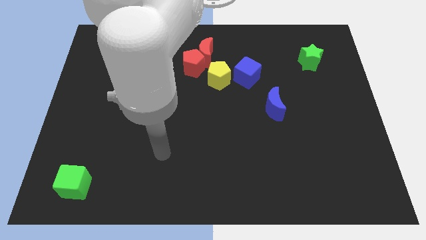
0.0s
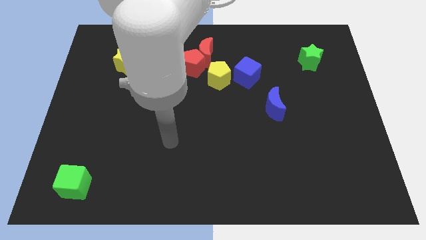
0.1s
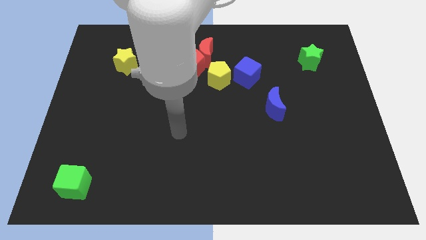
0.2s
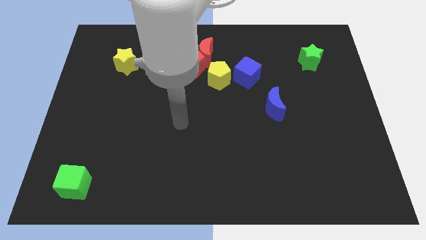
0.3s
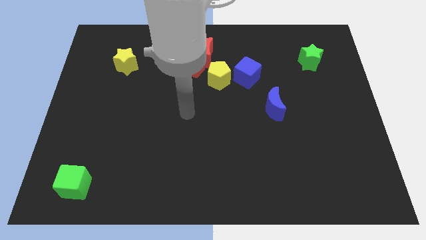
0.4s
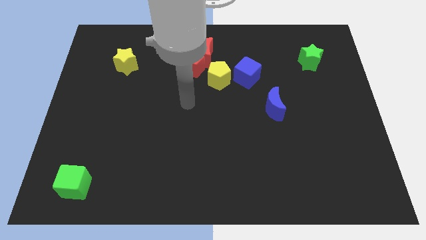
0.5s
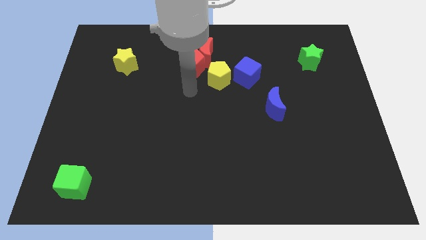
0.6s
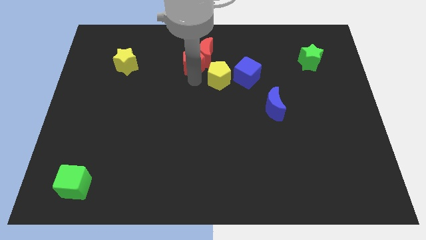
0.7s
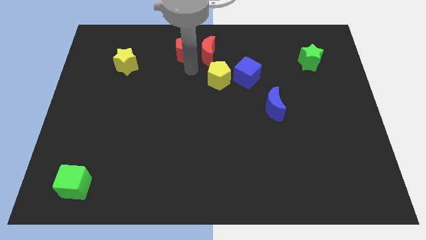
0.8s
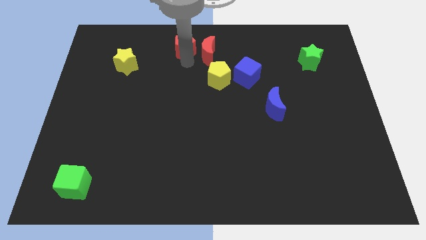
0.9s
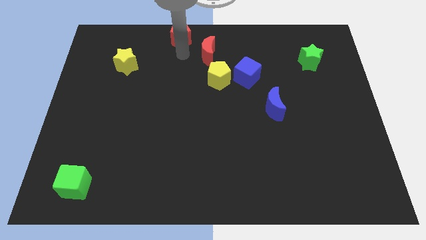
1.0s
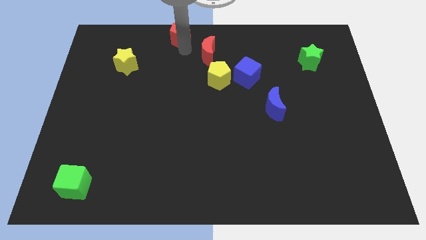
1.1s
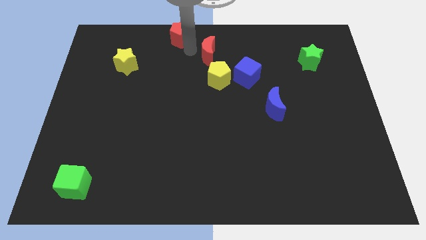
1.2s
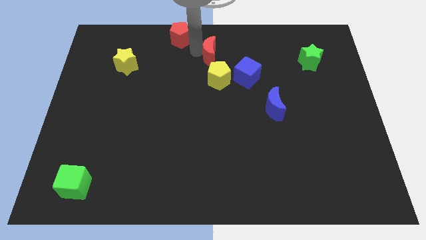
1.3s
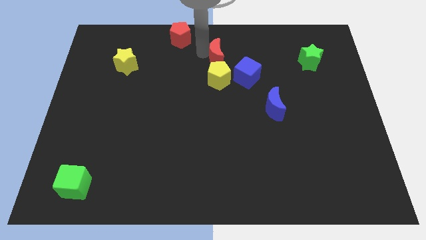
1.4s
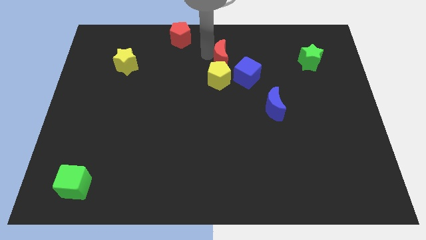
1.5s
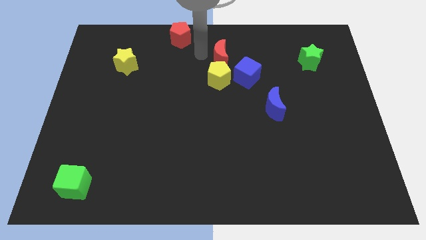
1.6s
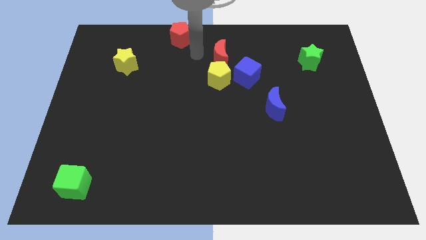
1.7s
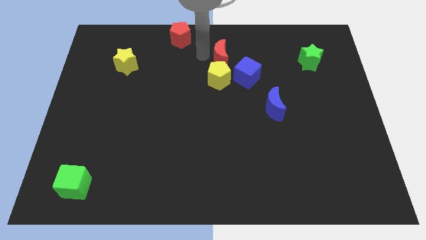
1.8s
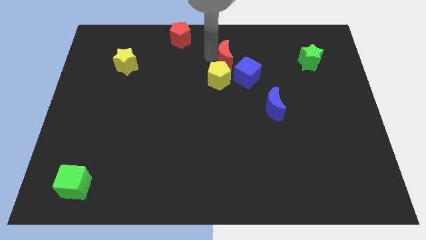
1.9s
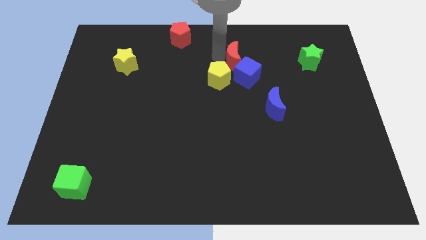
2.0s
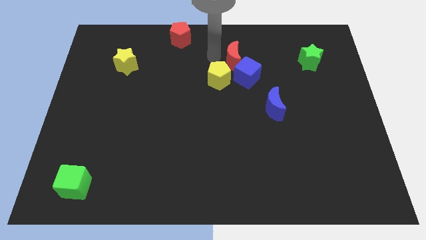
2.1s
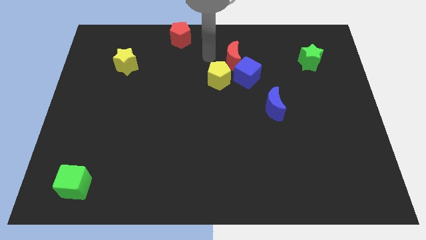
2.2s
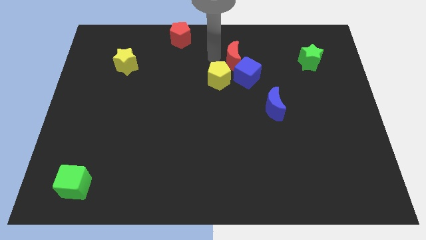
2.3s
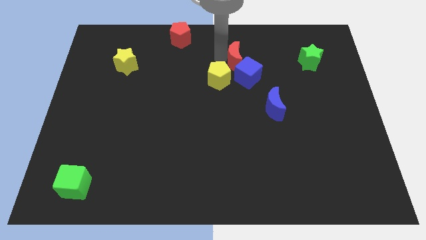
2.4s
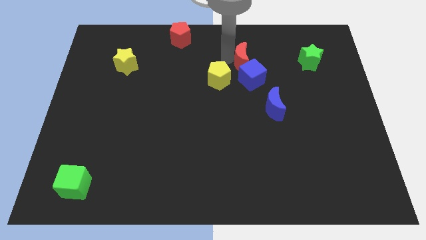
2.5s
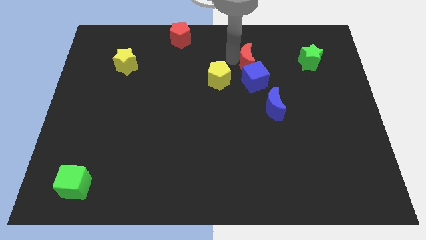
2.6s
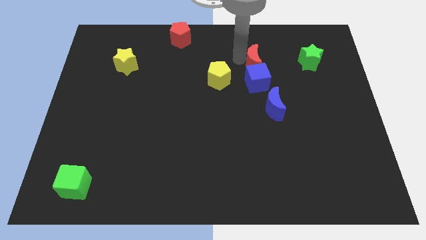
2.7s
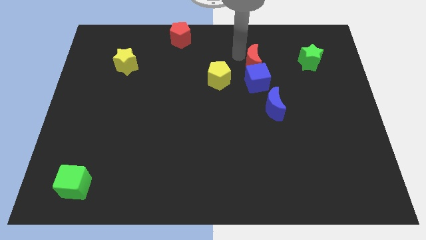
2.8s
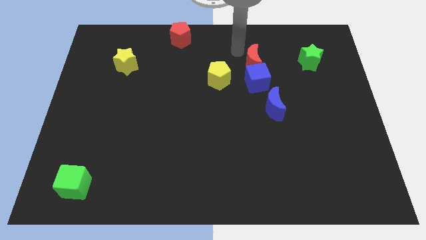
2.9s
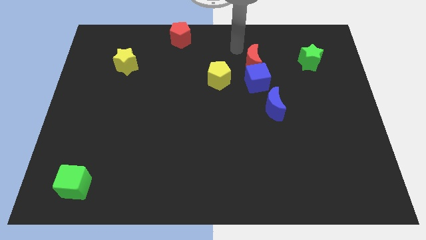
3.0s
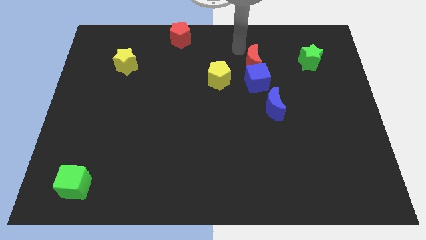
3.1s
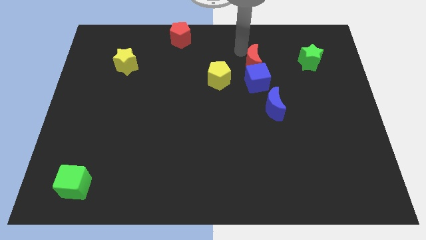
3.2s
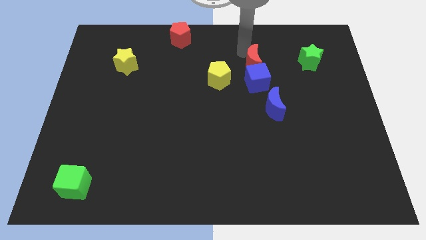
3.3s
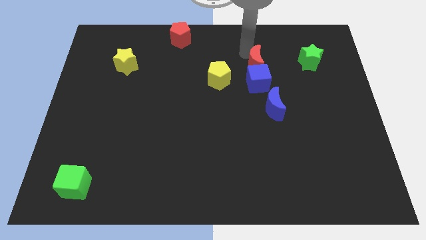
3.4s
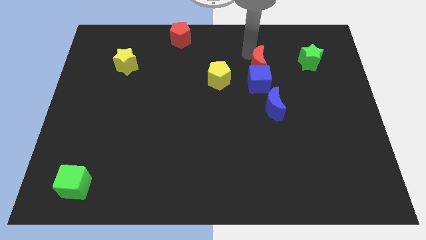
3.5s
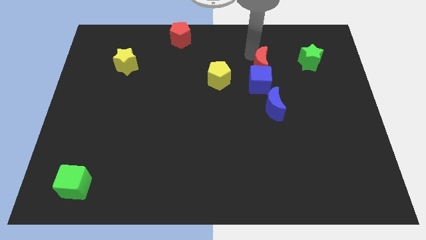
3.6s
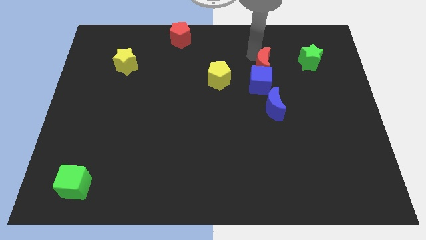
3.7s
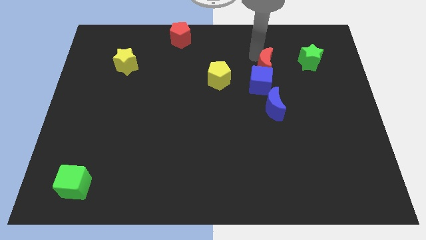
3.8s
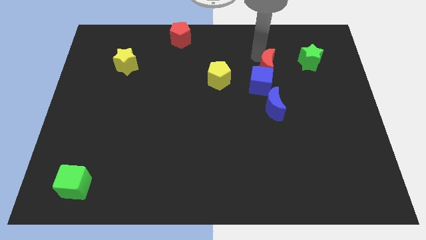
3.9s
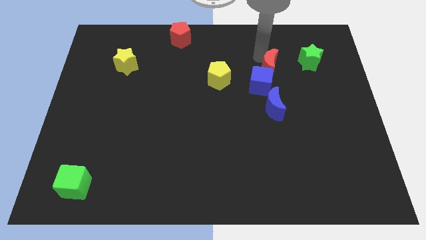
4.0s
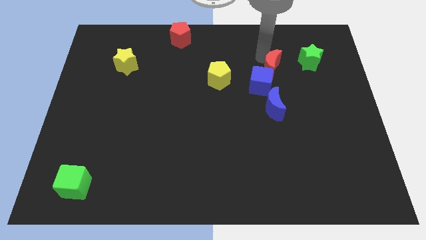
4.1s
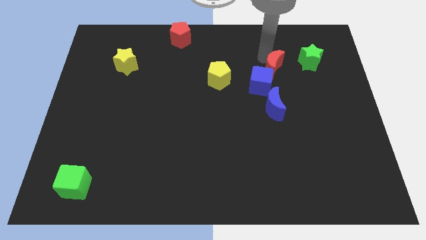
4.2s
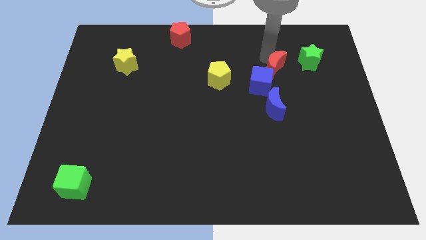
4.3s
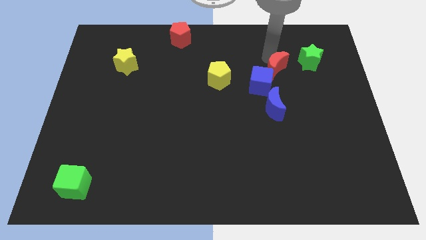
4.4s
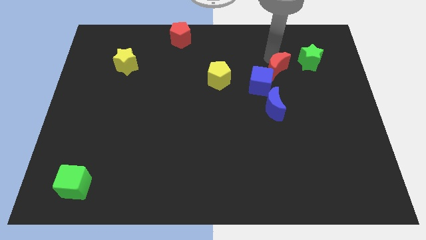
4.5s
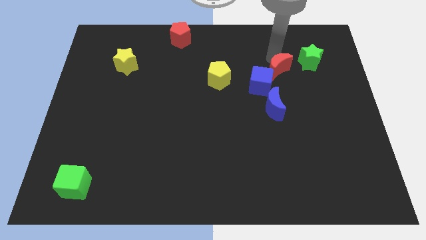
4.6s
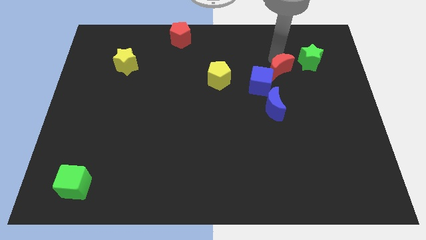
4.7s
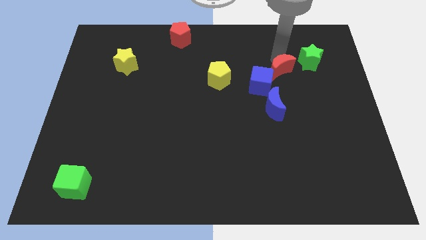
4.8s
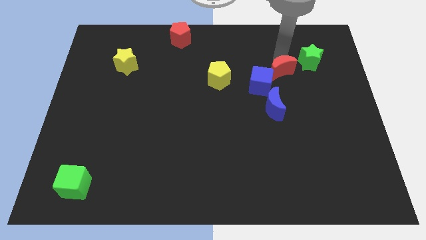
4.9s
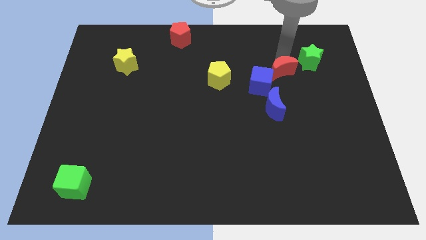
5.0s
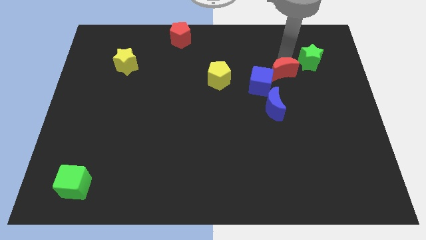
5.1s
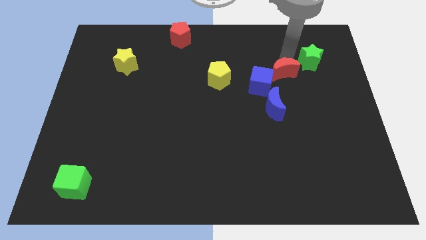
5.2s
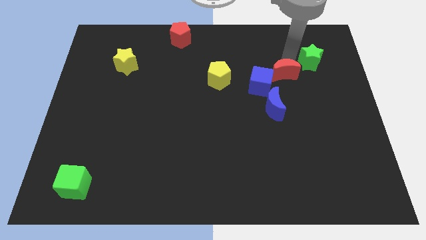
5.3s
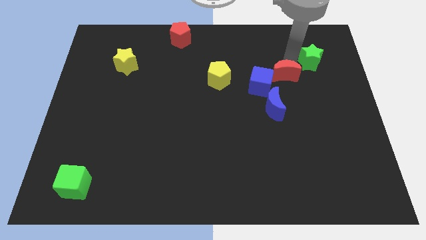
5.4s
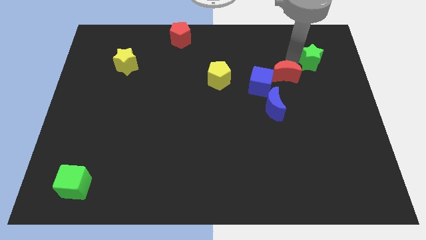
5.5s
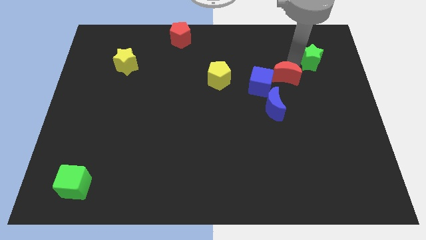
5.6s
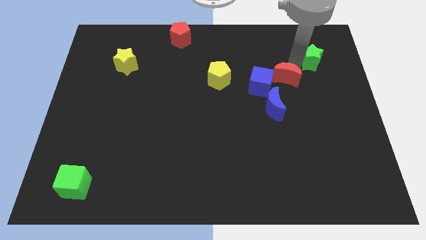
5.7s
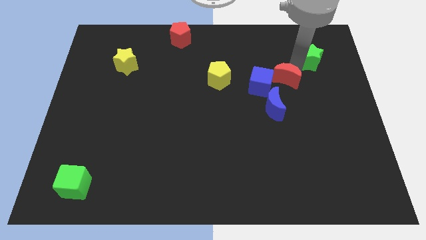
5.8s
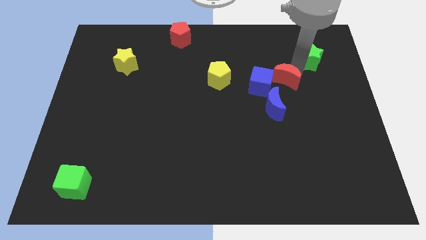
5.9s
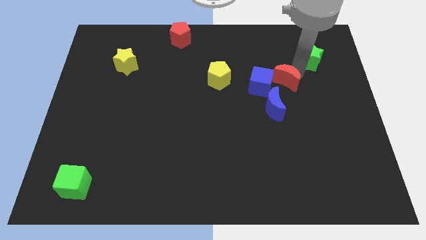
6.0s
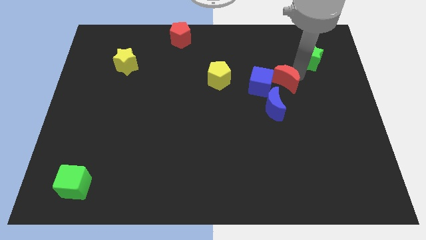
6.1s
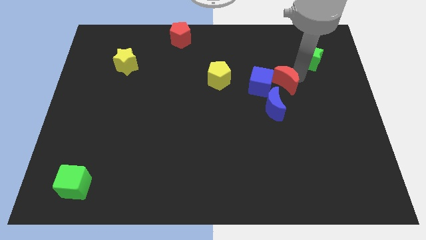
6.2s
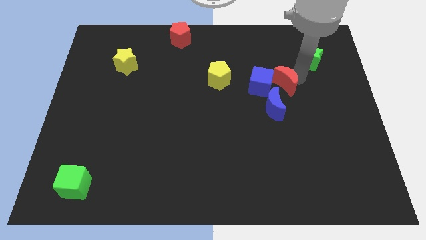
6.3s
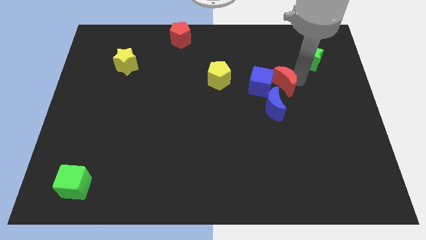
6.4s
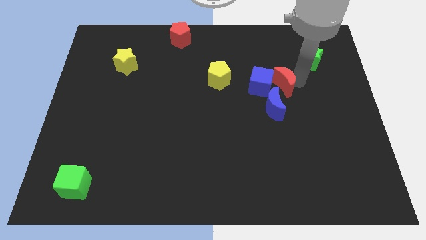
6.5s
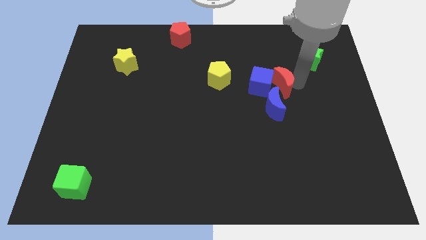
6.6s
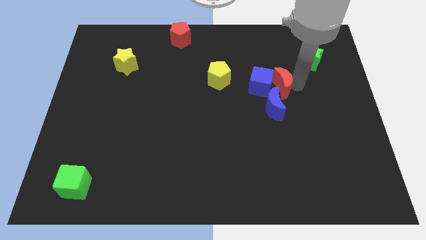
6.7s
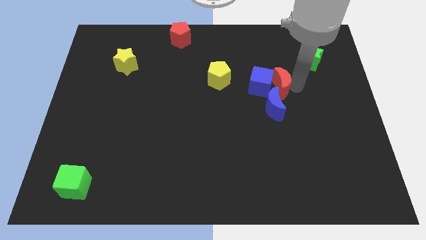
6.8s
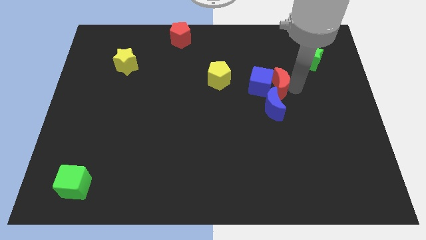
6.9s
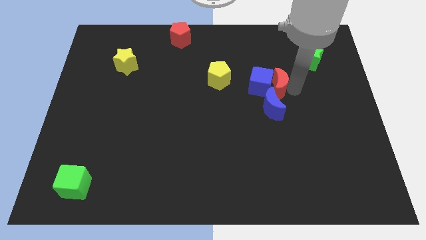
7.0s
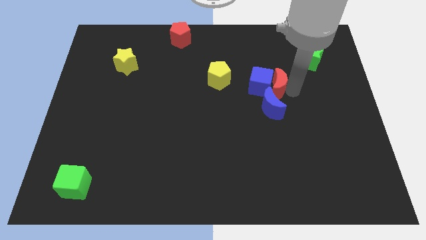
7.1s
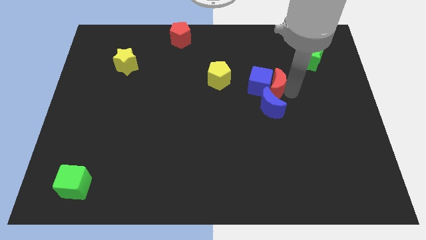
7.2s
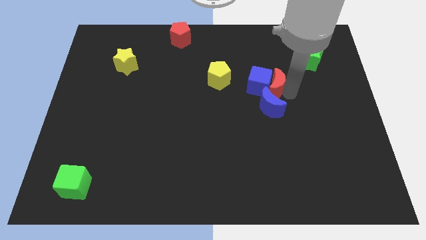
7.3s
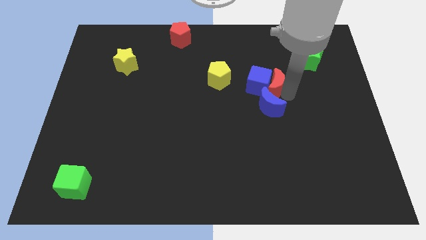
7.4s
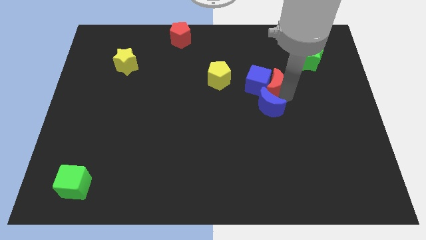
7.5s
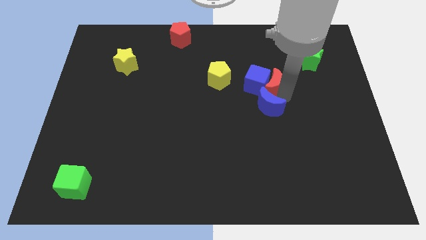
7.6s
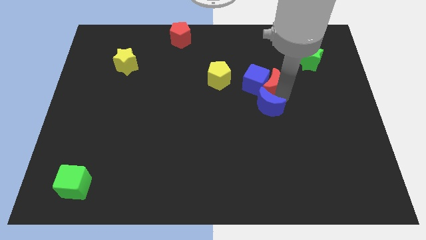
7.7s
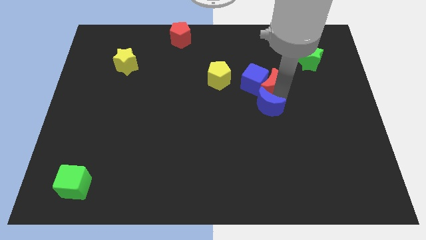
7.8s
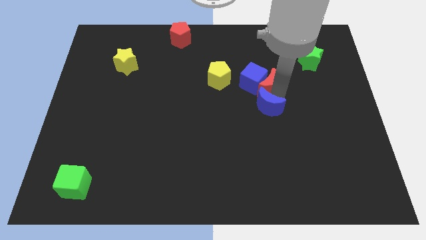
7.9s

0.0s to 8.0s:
push the red moon to the bottom of the blue cube
